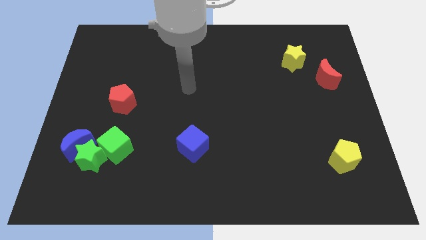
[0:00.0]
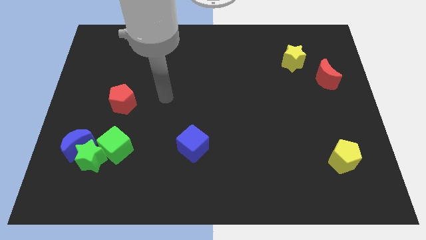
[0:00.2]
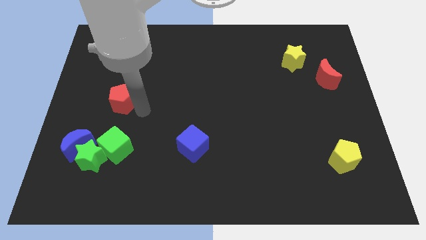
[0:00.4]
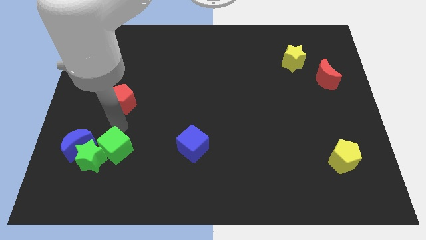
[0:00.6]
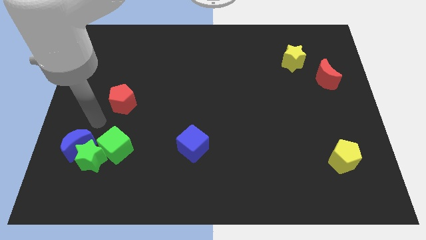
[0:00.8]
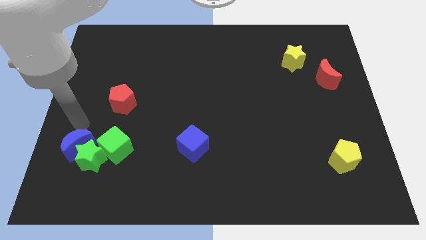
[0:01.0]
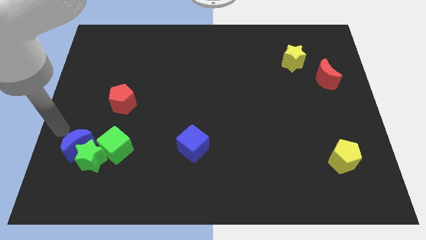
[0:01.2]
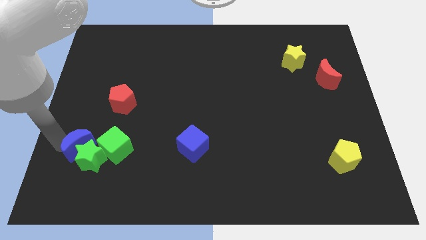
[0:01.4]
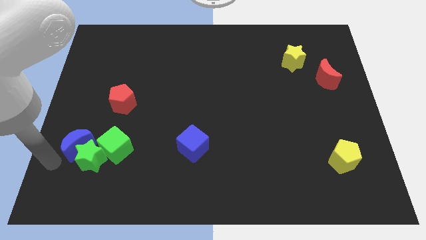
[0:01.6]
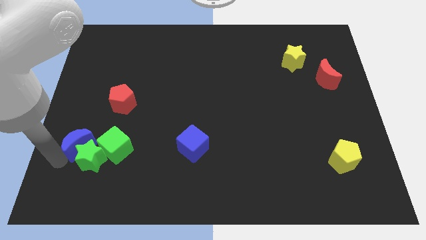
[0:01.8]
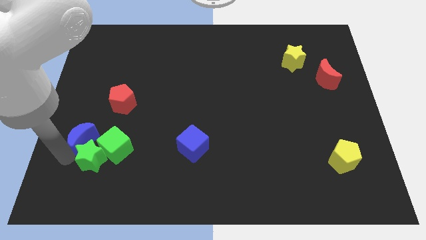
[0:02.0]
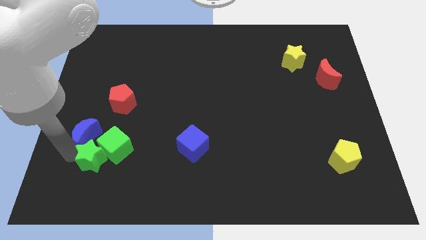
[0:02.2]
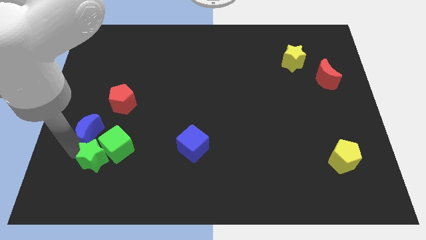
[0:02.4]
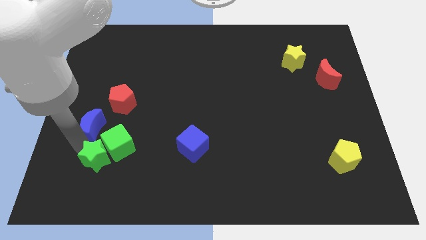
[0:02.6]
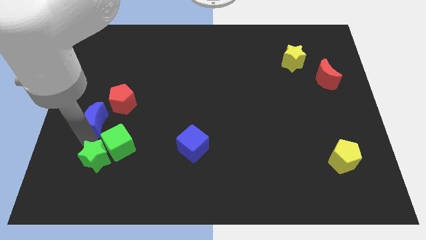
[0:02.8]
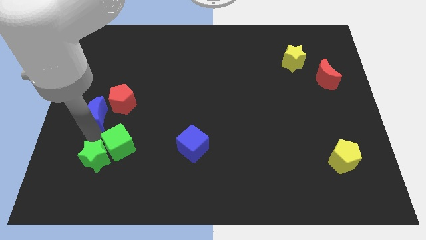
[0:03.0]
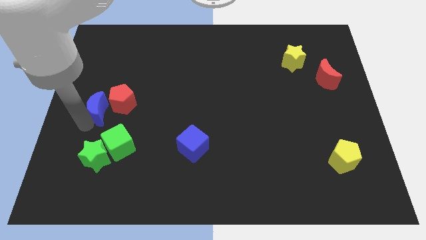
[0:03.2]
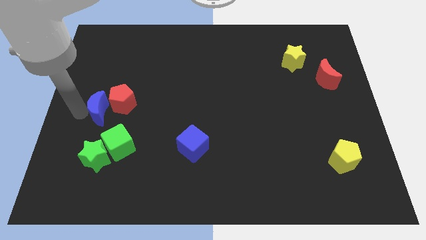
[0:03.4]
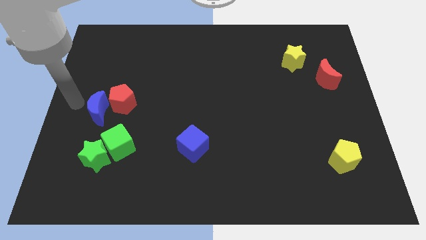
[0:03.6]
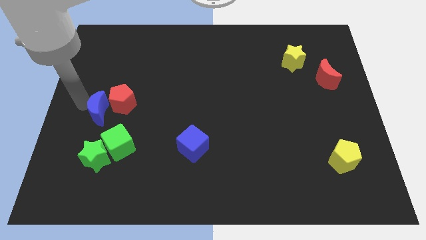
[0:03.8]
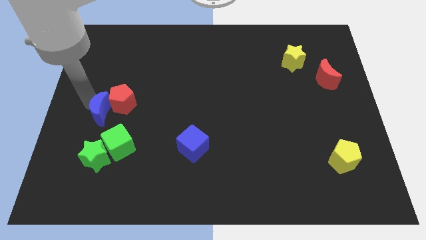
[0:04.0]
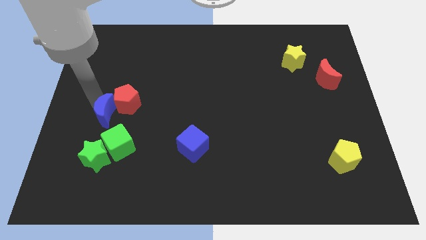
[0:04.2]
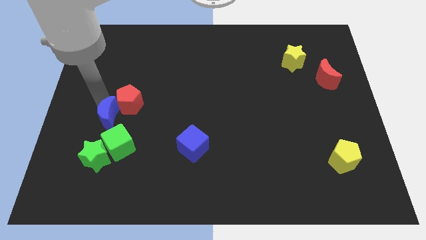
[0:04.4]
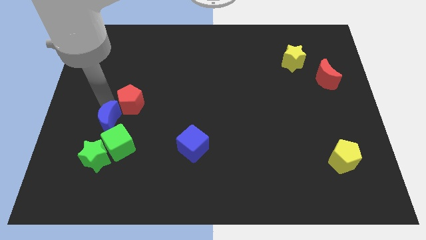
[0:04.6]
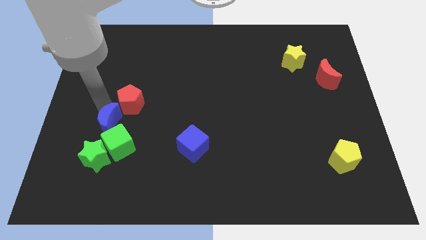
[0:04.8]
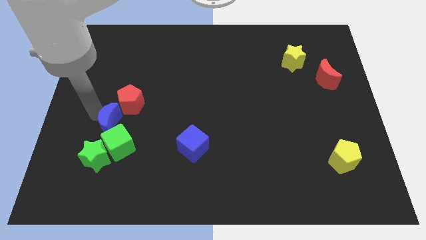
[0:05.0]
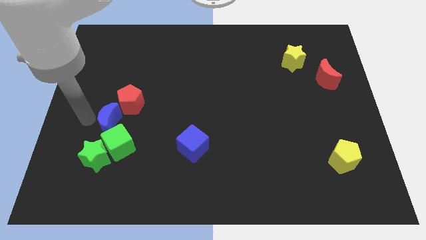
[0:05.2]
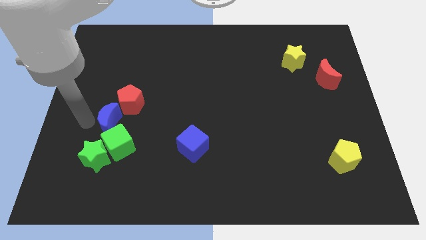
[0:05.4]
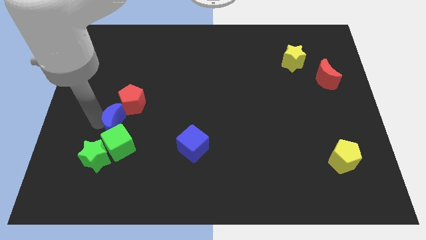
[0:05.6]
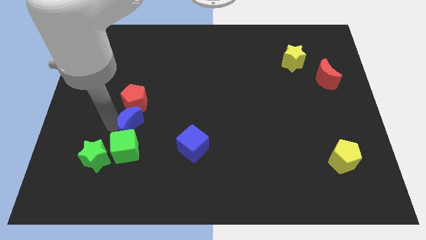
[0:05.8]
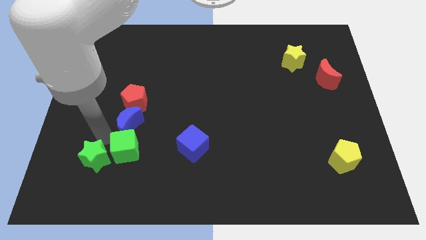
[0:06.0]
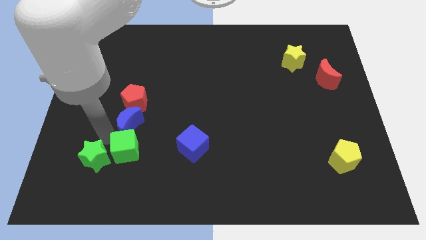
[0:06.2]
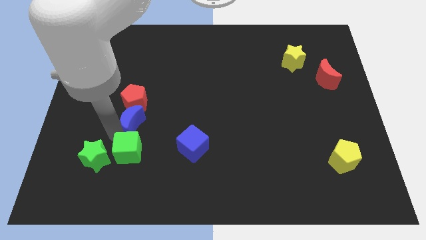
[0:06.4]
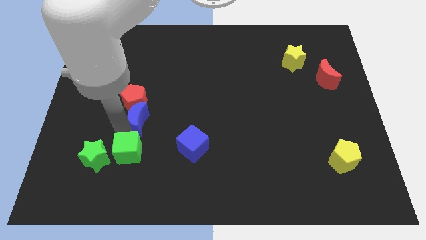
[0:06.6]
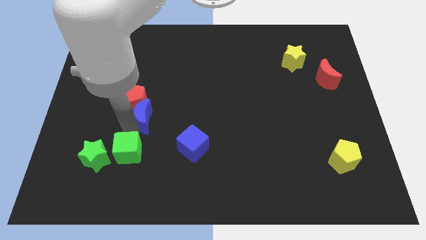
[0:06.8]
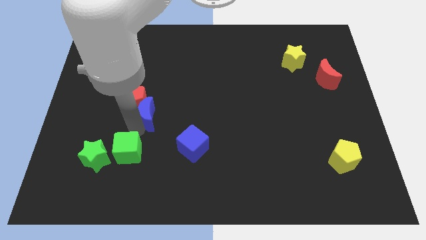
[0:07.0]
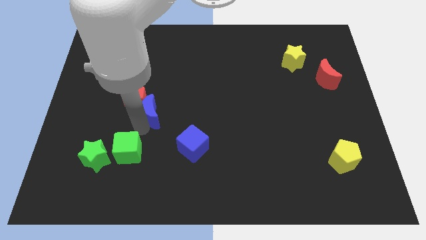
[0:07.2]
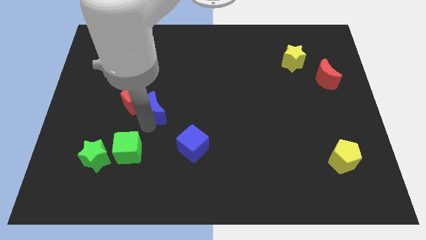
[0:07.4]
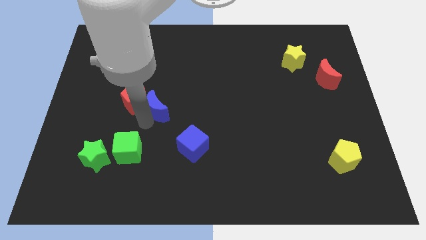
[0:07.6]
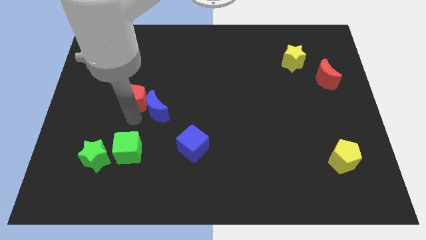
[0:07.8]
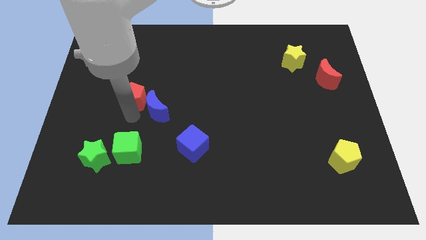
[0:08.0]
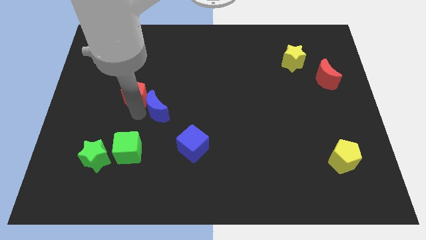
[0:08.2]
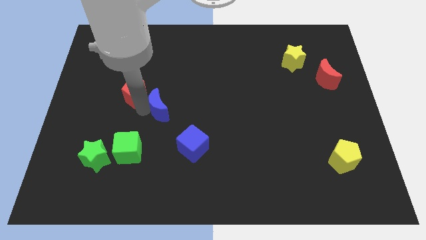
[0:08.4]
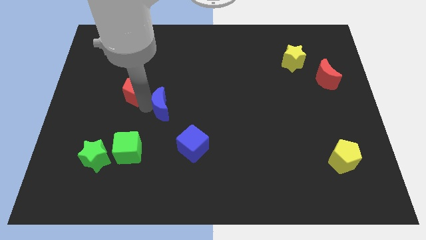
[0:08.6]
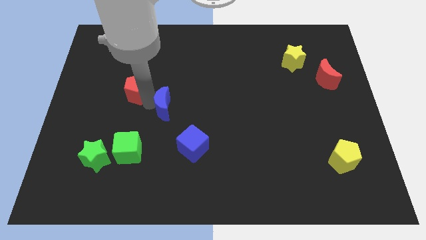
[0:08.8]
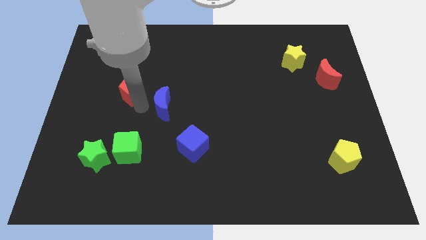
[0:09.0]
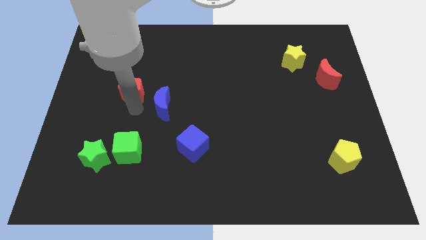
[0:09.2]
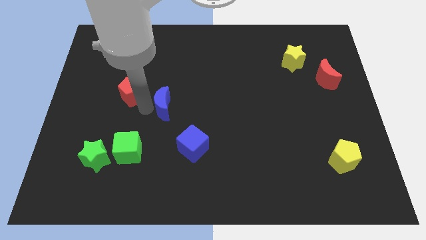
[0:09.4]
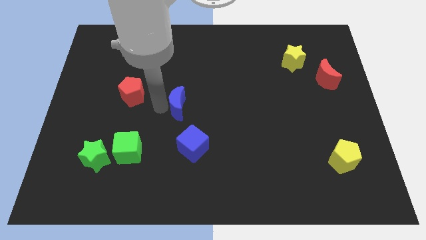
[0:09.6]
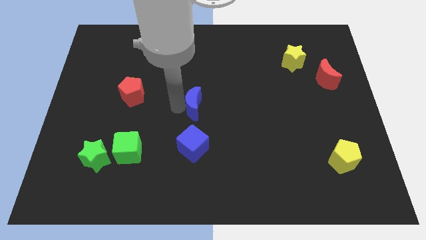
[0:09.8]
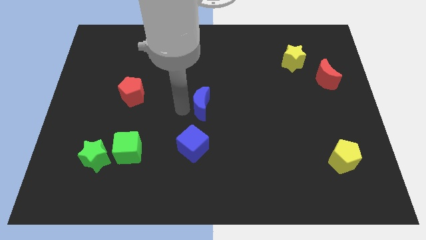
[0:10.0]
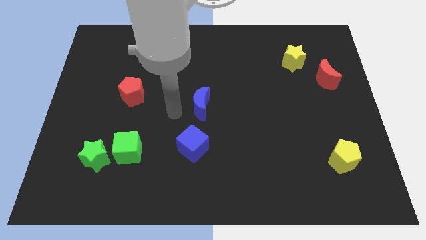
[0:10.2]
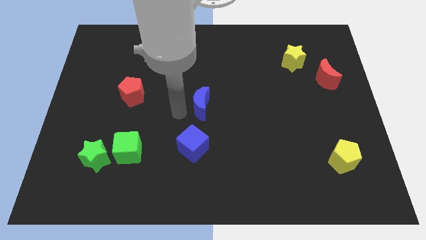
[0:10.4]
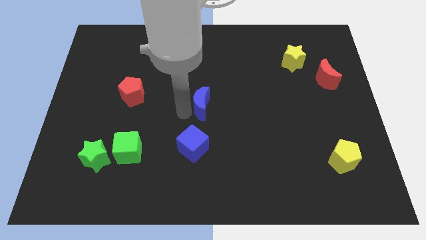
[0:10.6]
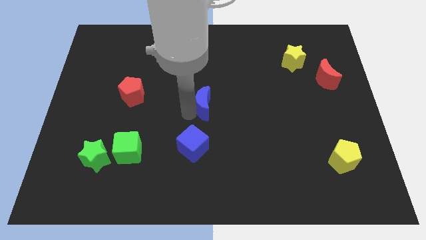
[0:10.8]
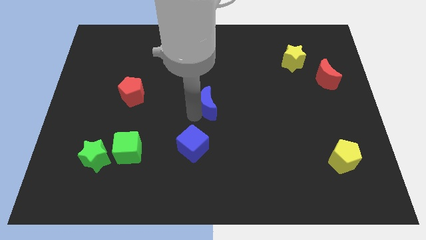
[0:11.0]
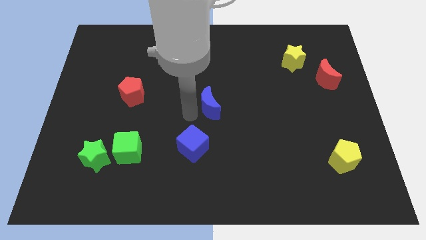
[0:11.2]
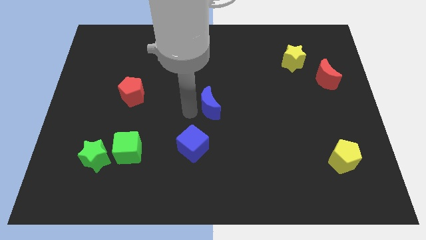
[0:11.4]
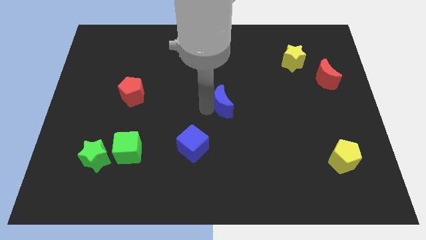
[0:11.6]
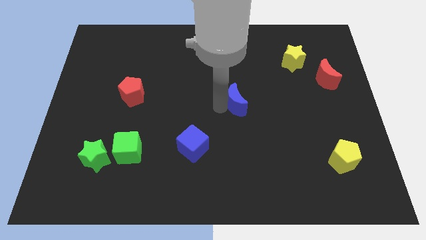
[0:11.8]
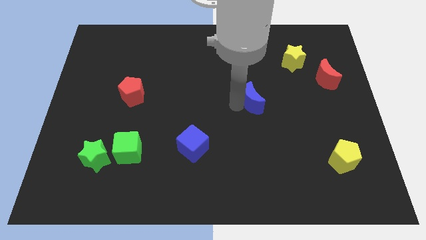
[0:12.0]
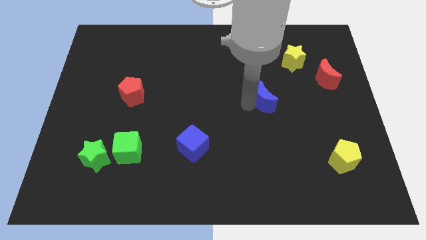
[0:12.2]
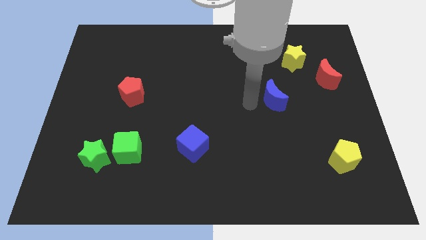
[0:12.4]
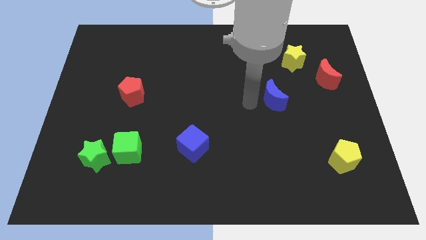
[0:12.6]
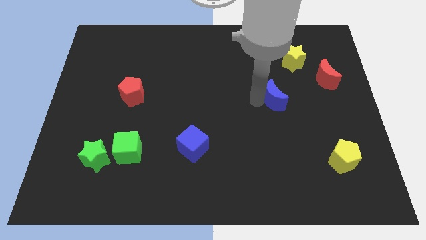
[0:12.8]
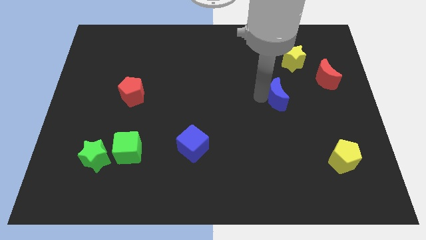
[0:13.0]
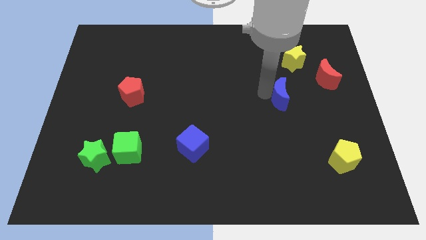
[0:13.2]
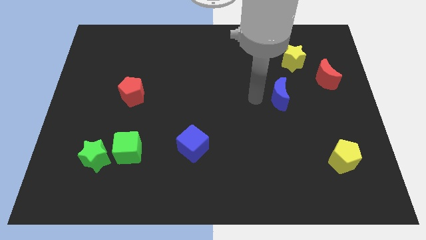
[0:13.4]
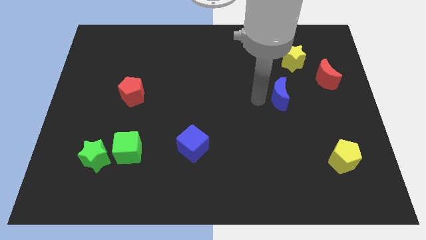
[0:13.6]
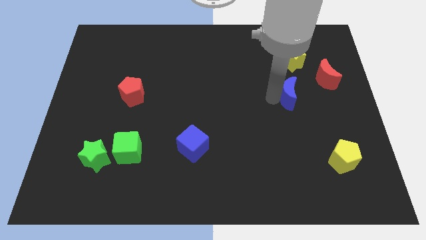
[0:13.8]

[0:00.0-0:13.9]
put the blue moon to the bottom left side of the red moon

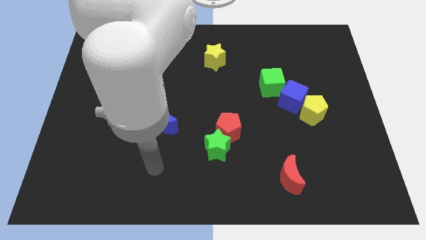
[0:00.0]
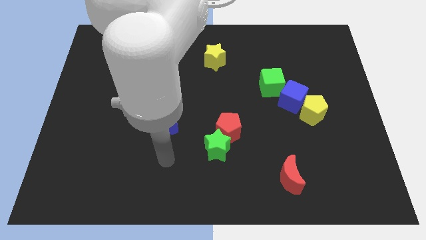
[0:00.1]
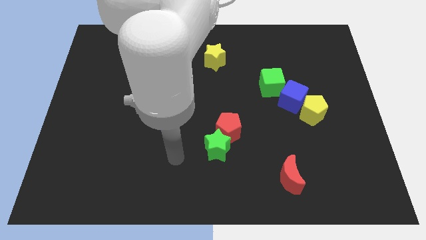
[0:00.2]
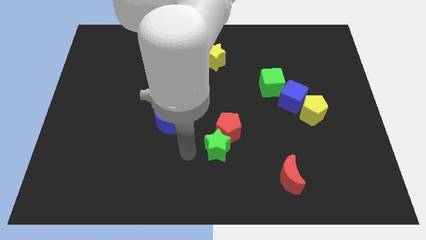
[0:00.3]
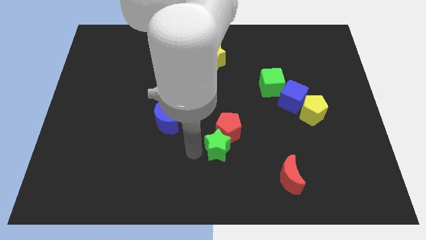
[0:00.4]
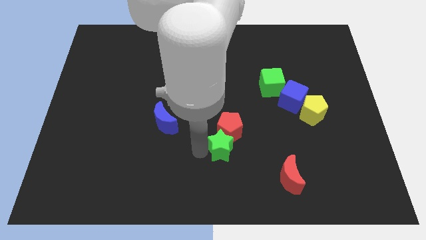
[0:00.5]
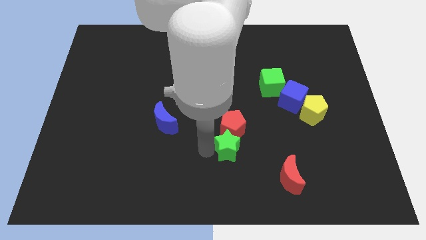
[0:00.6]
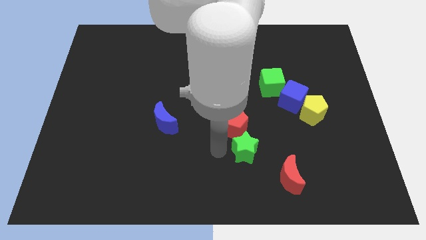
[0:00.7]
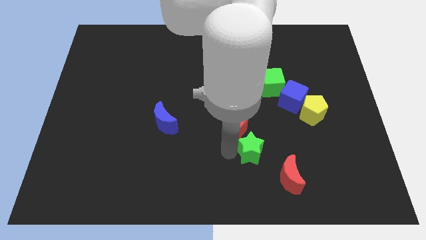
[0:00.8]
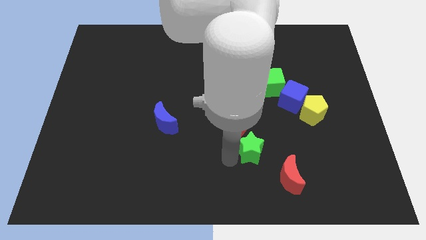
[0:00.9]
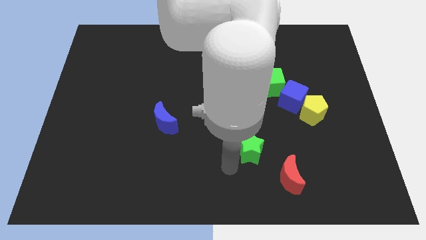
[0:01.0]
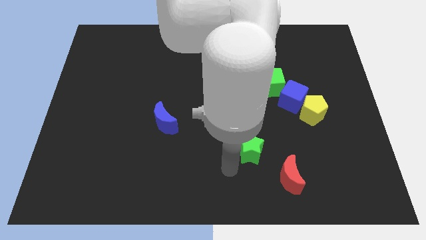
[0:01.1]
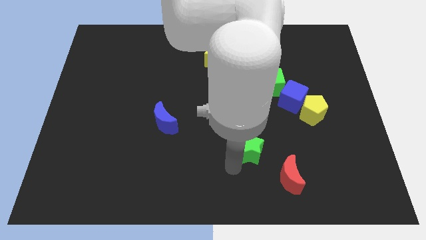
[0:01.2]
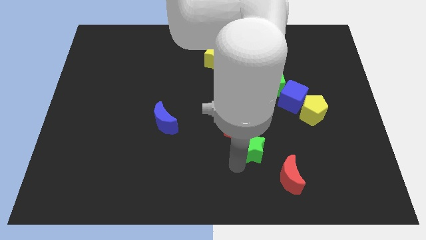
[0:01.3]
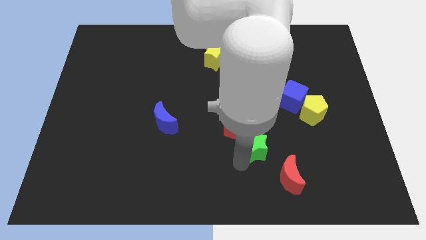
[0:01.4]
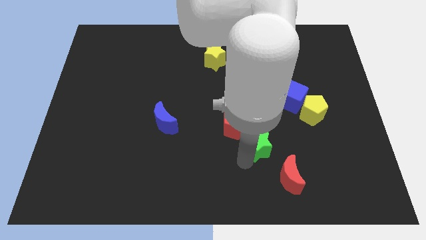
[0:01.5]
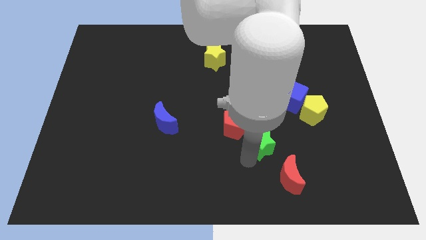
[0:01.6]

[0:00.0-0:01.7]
put the green star just right of the red pentagon
